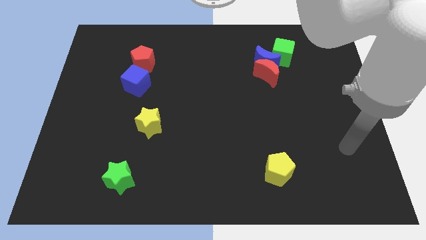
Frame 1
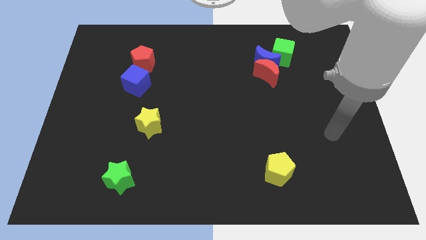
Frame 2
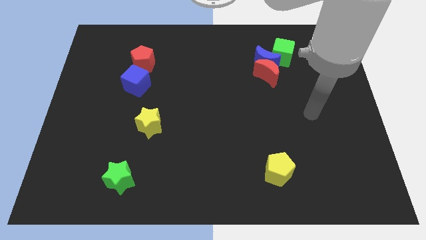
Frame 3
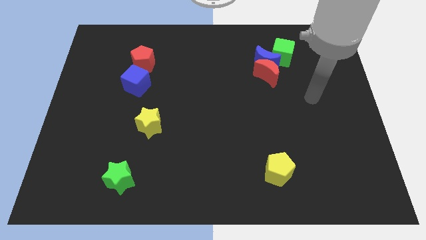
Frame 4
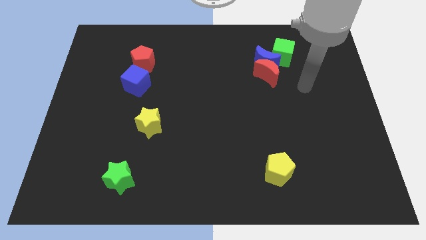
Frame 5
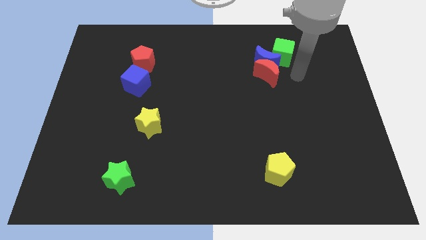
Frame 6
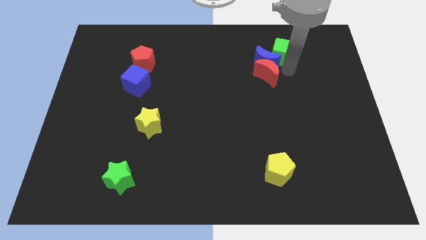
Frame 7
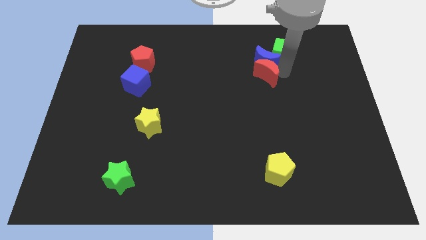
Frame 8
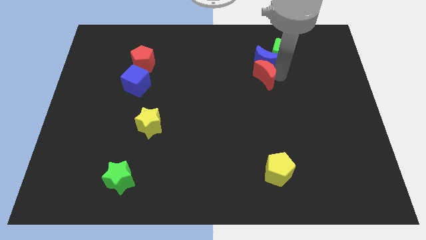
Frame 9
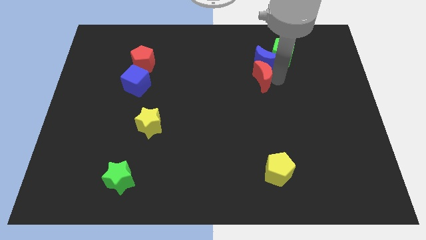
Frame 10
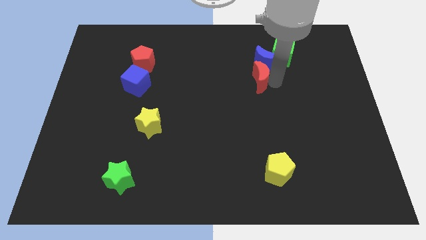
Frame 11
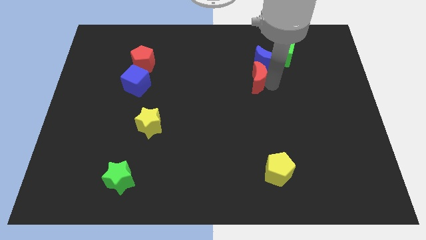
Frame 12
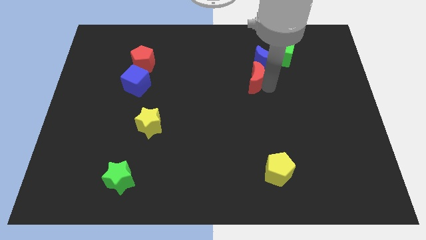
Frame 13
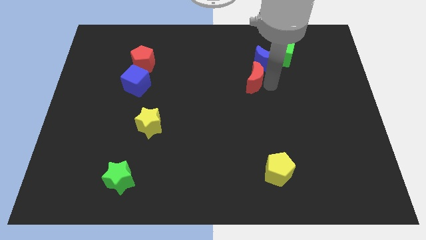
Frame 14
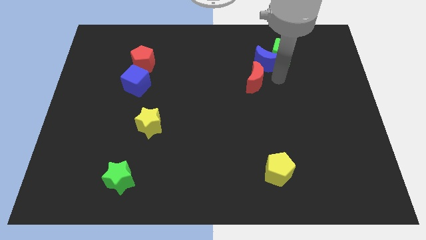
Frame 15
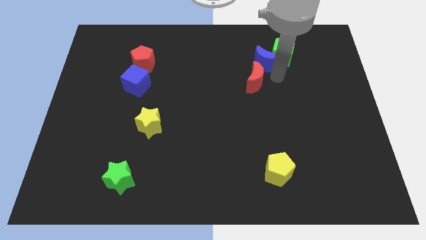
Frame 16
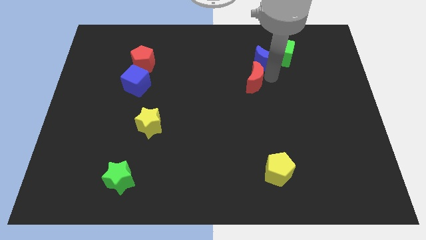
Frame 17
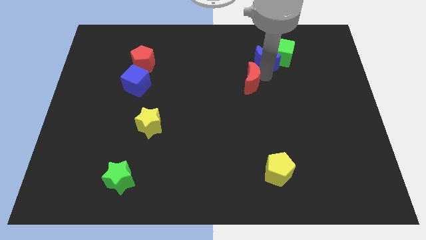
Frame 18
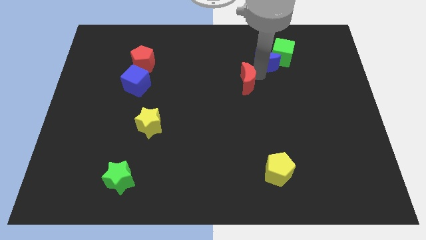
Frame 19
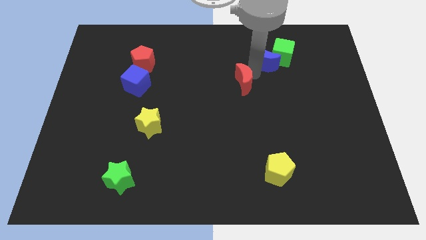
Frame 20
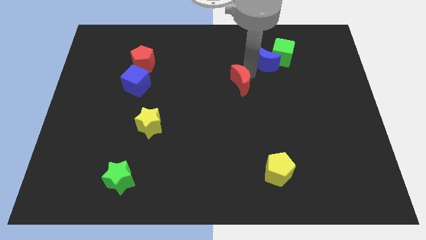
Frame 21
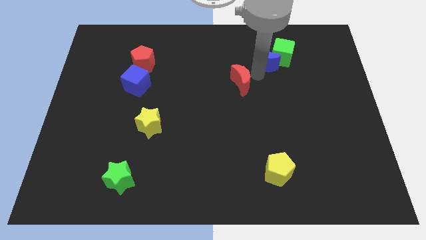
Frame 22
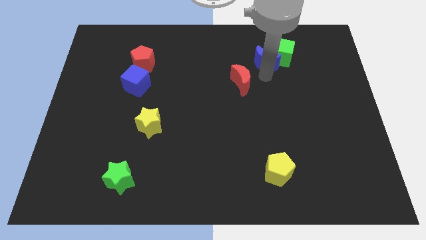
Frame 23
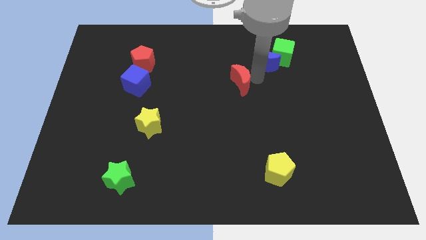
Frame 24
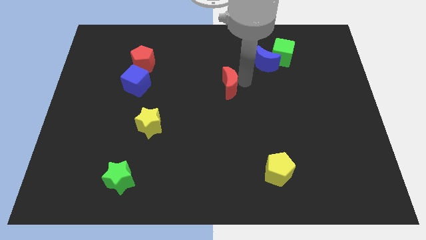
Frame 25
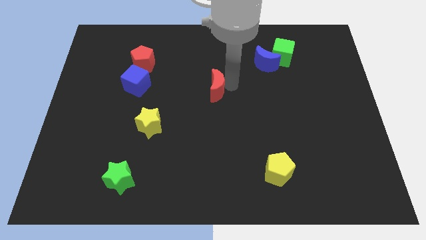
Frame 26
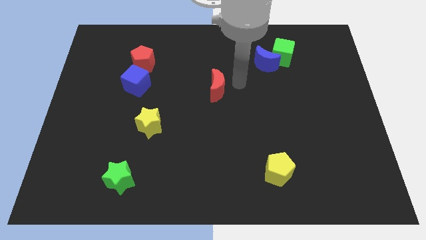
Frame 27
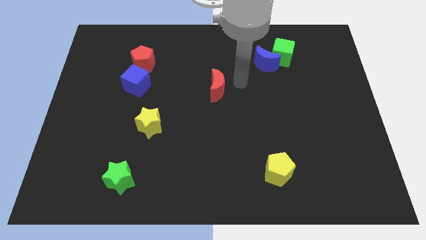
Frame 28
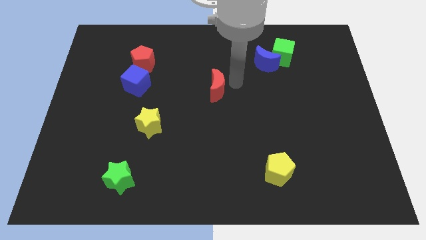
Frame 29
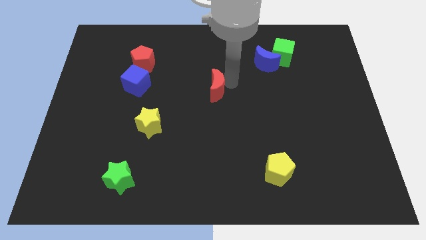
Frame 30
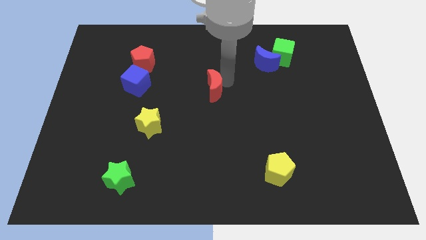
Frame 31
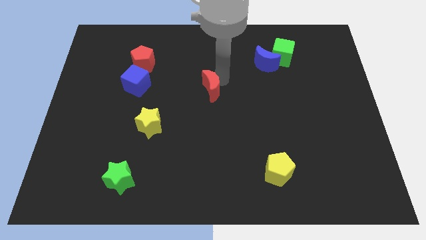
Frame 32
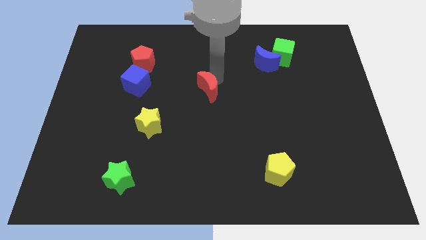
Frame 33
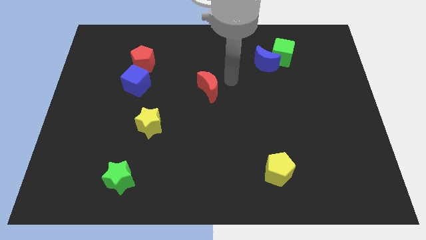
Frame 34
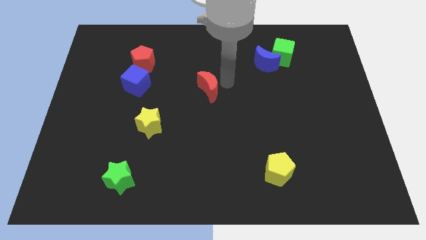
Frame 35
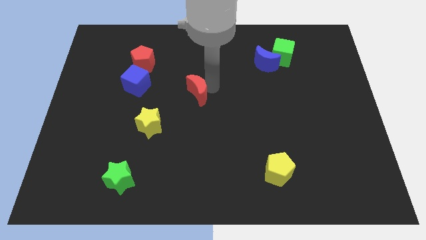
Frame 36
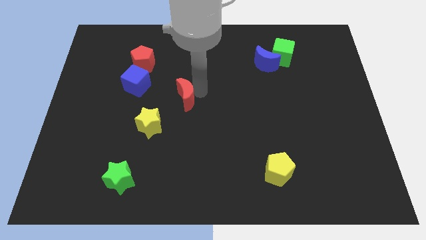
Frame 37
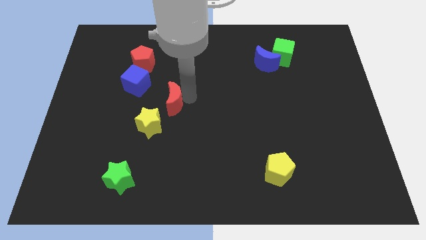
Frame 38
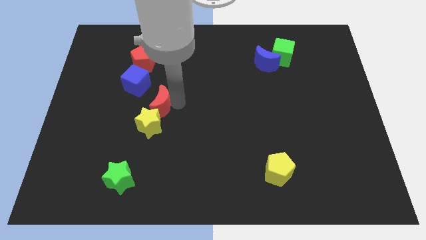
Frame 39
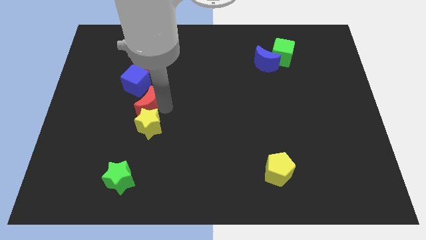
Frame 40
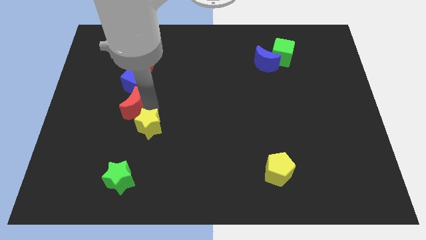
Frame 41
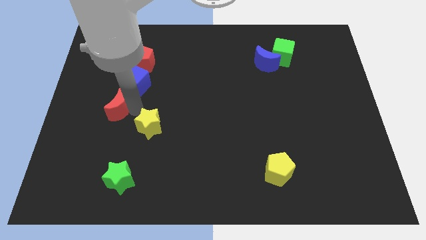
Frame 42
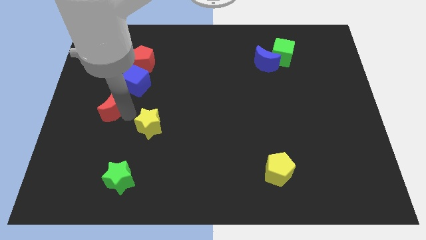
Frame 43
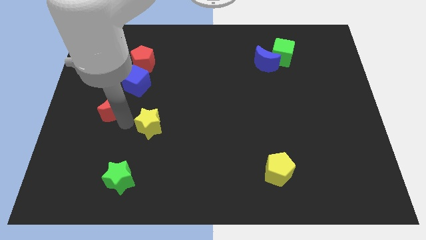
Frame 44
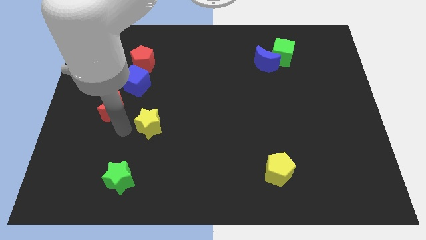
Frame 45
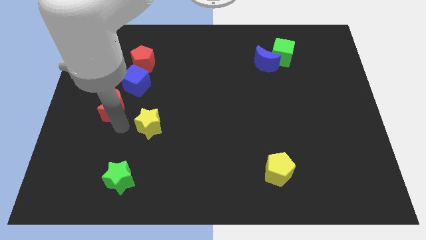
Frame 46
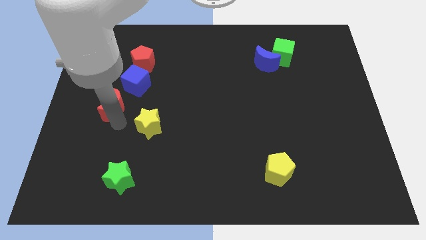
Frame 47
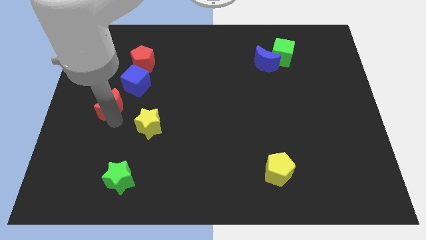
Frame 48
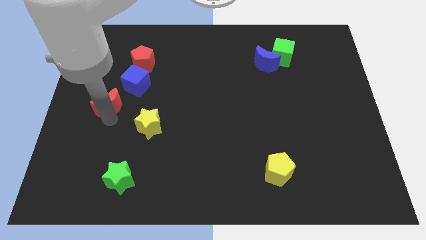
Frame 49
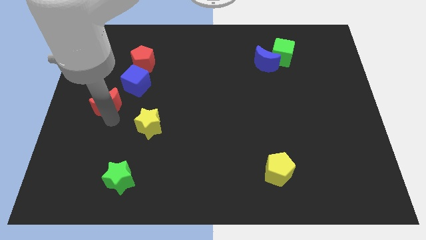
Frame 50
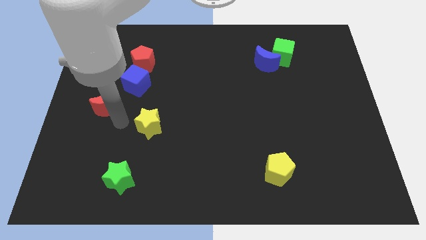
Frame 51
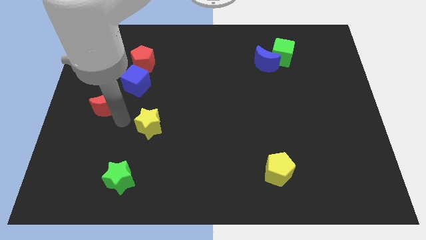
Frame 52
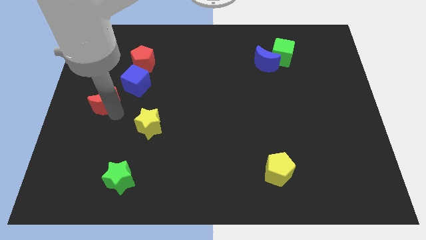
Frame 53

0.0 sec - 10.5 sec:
put the red moon to the left side

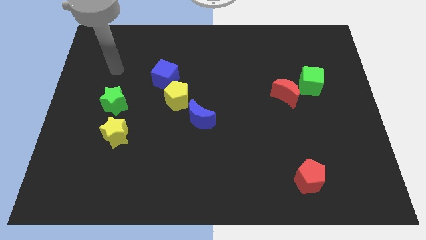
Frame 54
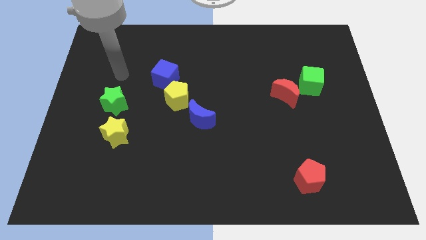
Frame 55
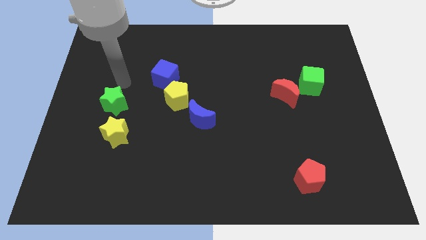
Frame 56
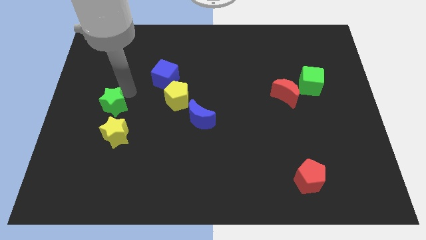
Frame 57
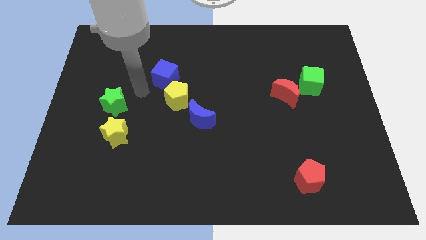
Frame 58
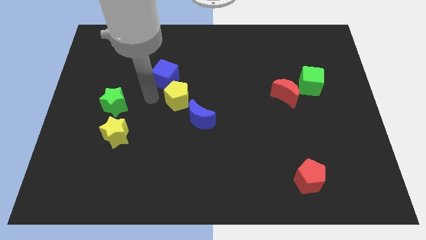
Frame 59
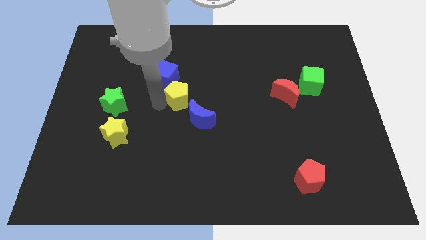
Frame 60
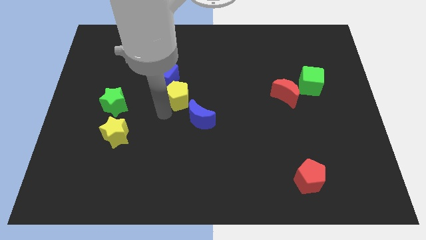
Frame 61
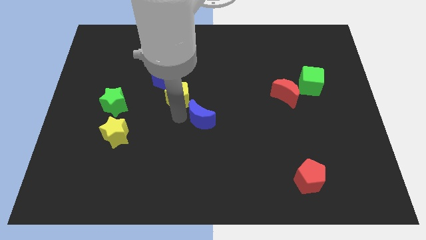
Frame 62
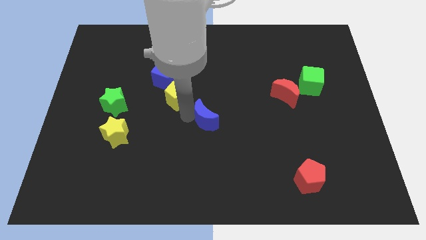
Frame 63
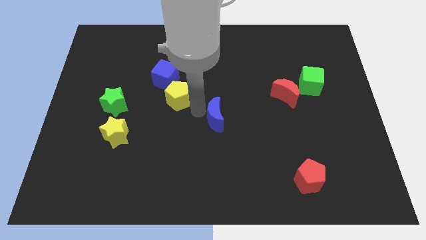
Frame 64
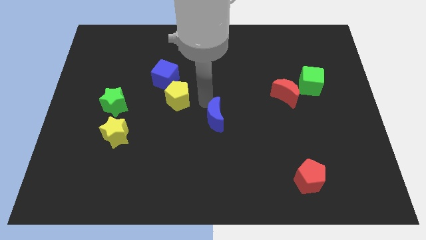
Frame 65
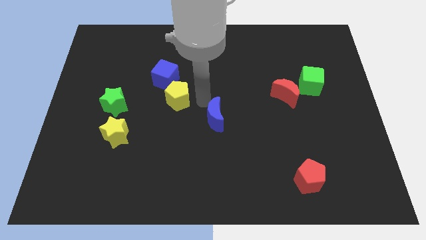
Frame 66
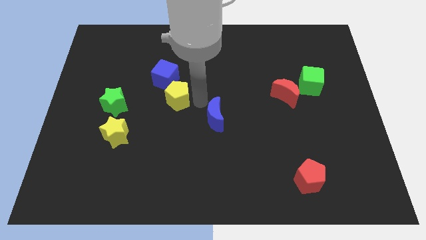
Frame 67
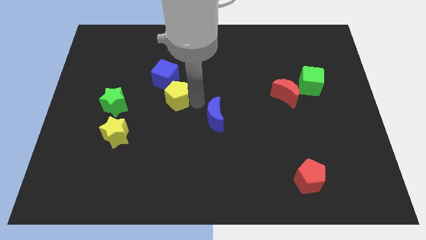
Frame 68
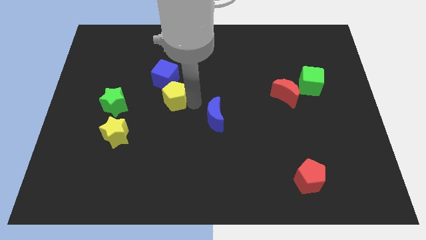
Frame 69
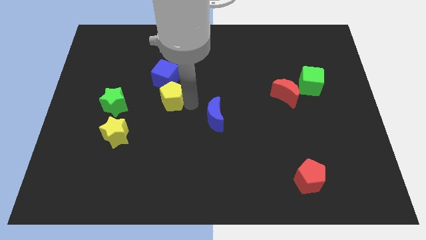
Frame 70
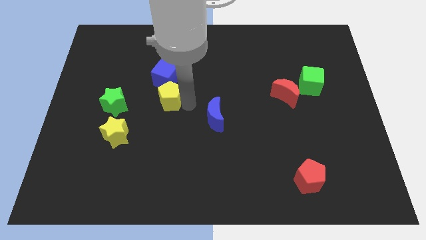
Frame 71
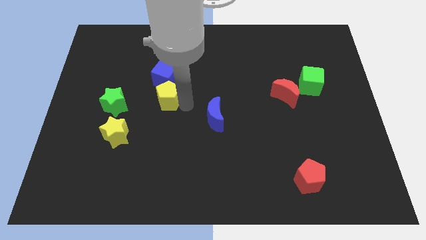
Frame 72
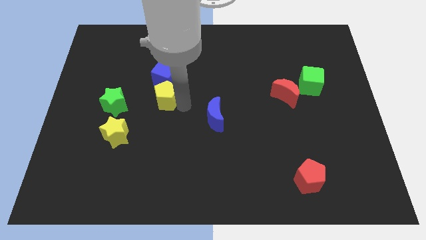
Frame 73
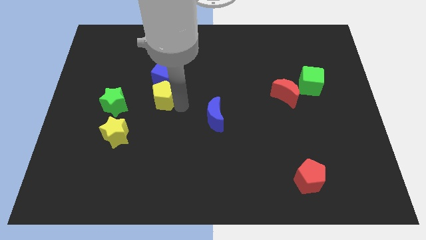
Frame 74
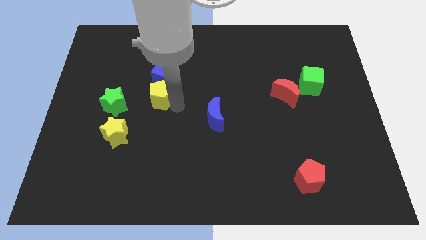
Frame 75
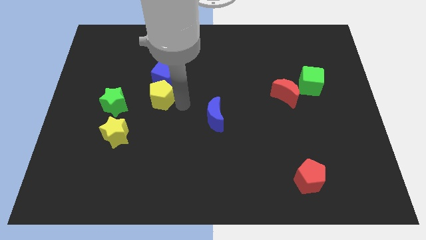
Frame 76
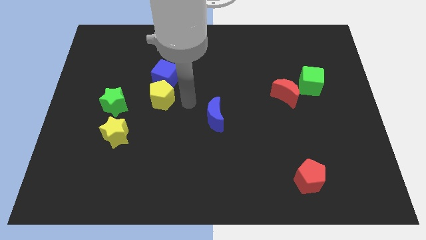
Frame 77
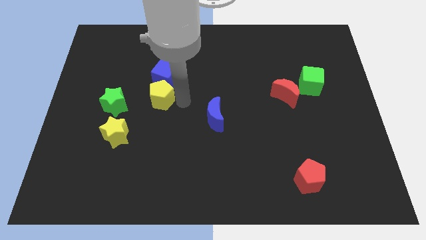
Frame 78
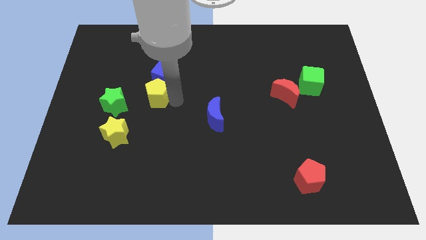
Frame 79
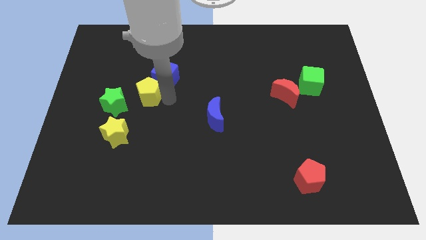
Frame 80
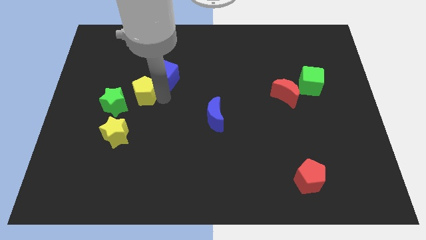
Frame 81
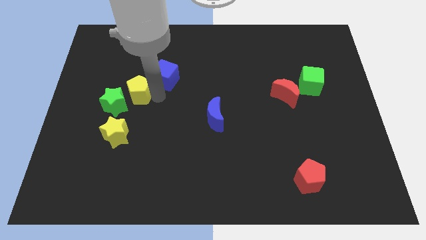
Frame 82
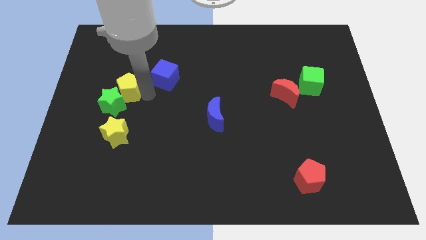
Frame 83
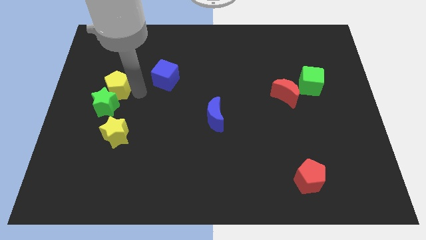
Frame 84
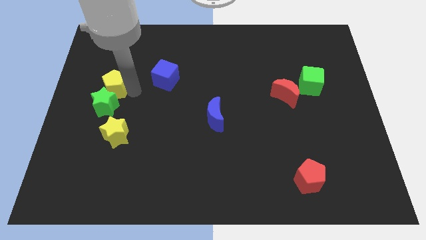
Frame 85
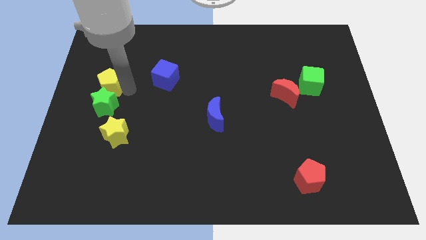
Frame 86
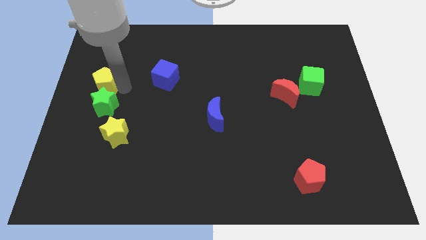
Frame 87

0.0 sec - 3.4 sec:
slide the yellow pentagon to the center left
